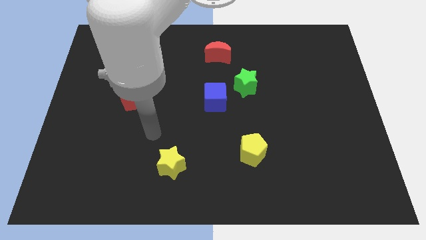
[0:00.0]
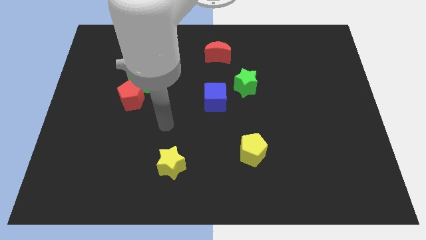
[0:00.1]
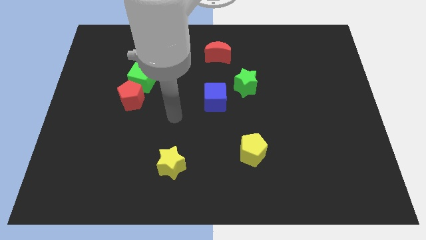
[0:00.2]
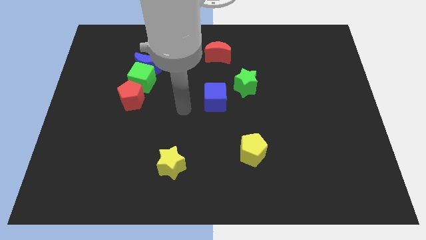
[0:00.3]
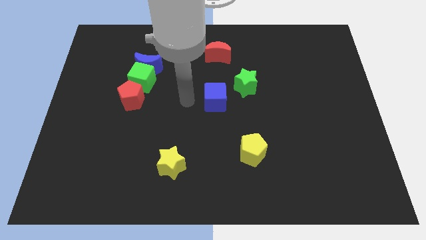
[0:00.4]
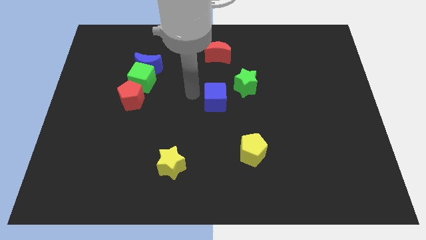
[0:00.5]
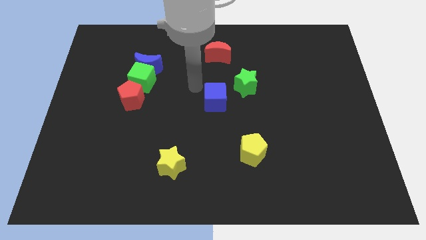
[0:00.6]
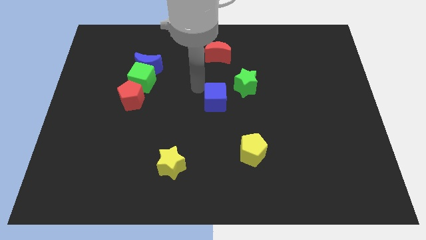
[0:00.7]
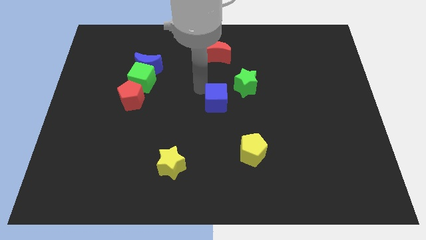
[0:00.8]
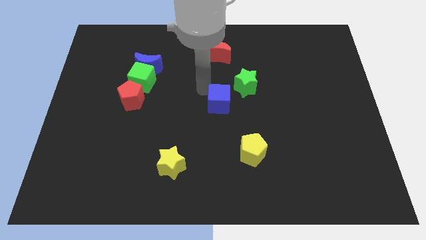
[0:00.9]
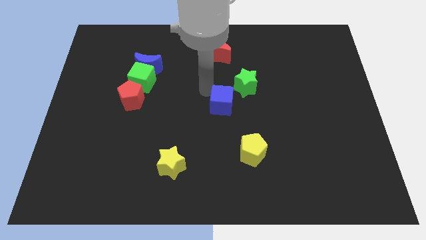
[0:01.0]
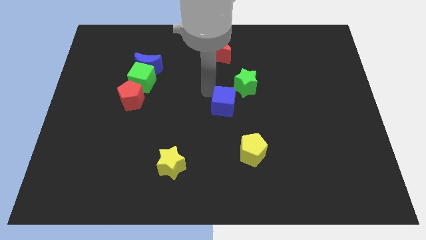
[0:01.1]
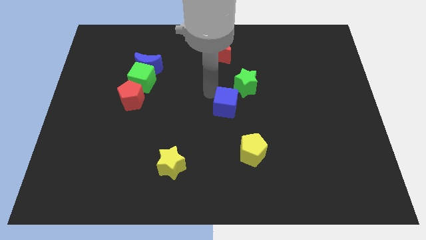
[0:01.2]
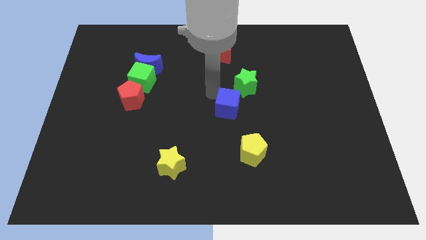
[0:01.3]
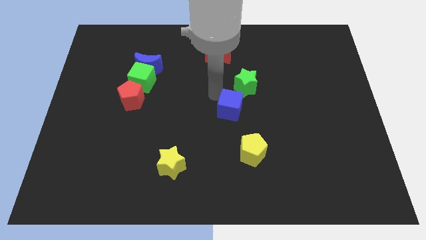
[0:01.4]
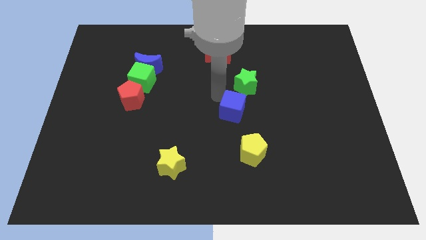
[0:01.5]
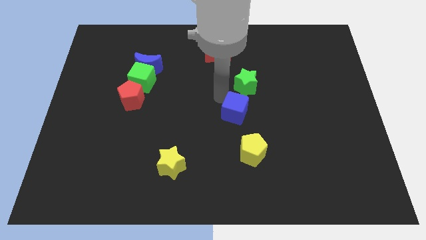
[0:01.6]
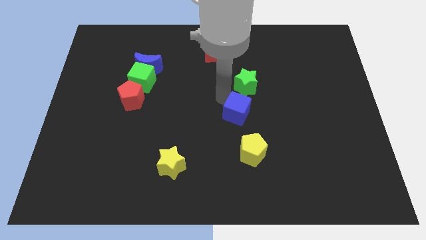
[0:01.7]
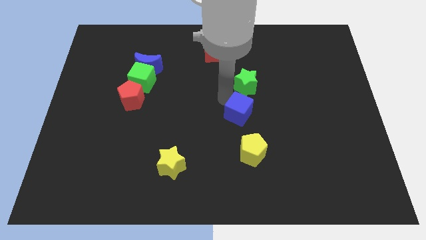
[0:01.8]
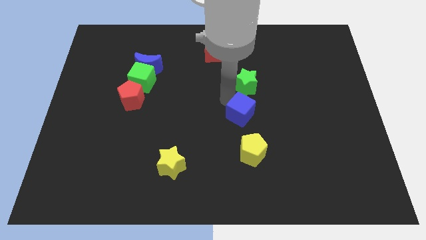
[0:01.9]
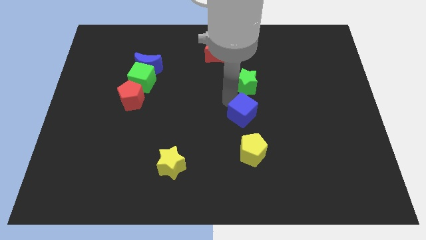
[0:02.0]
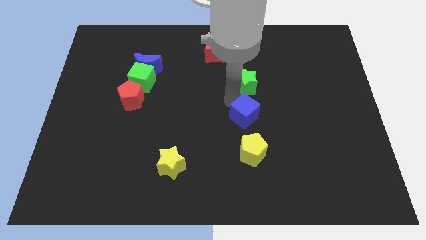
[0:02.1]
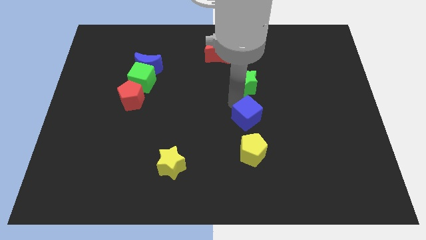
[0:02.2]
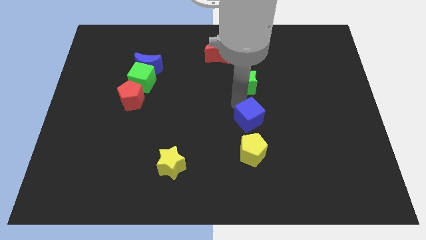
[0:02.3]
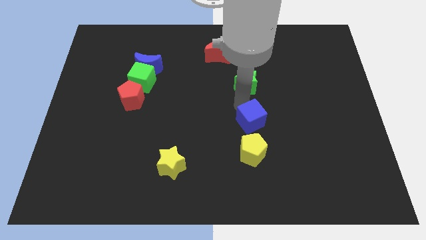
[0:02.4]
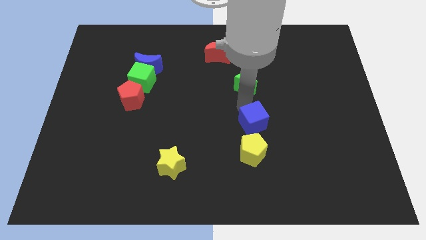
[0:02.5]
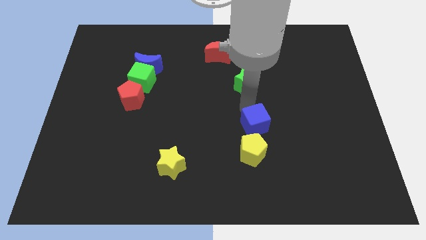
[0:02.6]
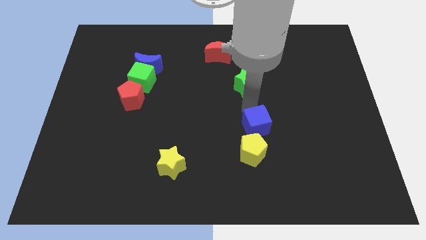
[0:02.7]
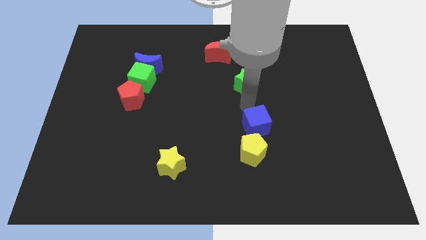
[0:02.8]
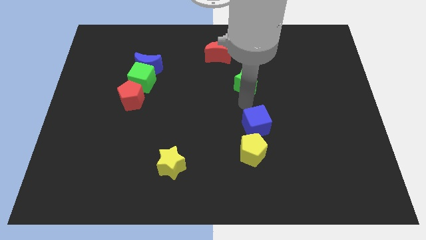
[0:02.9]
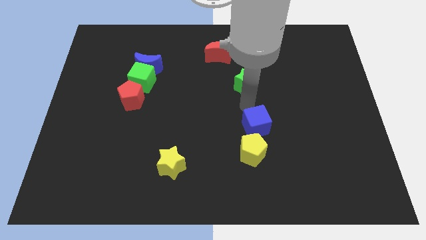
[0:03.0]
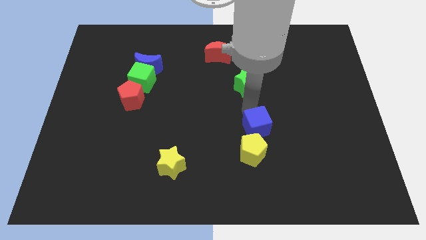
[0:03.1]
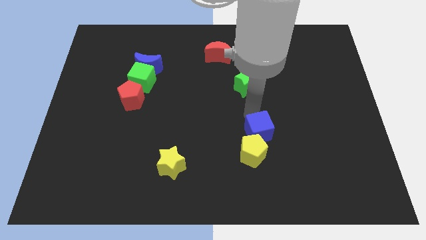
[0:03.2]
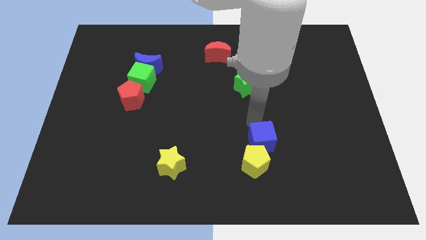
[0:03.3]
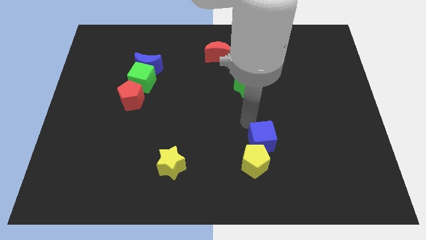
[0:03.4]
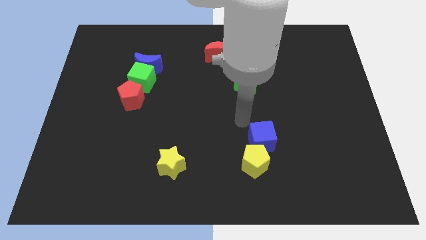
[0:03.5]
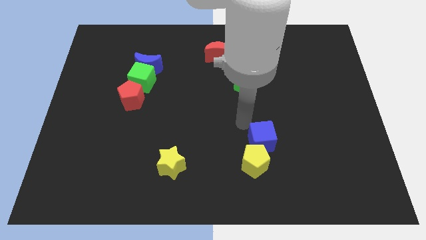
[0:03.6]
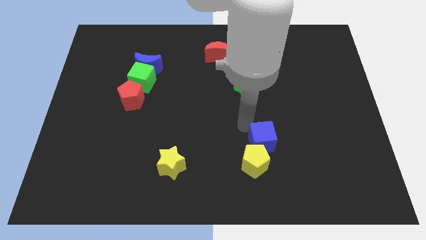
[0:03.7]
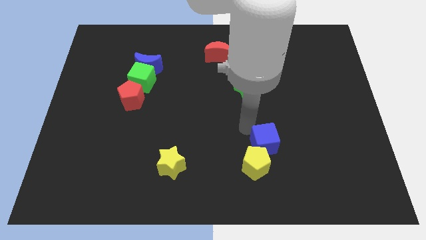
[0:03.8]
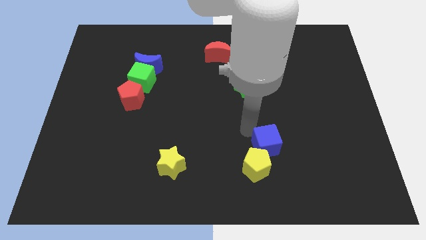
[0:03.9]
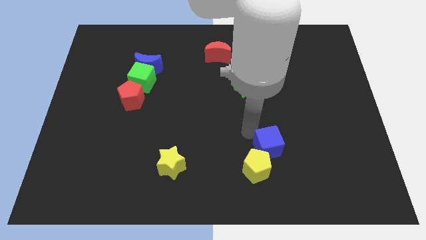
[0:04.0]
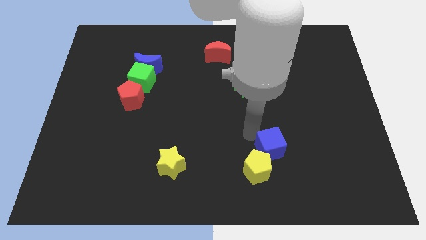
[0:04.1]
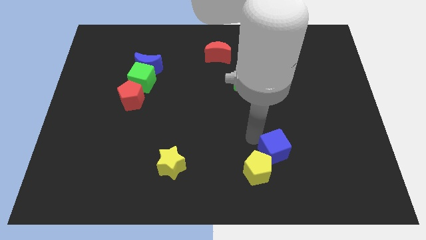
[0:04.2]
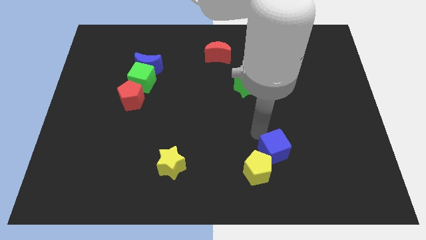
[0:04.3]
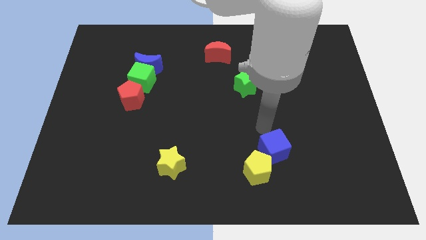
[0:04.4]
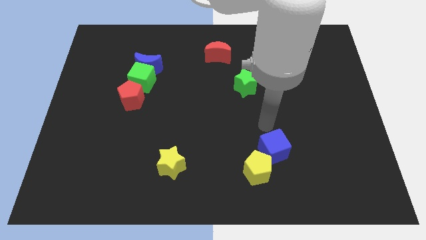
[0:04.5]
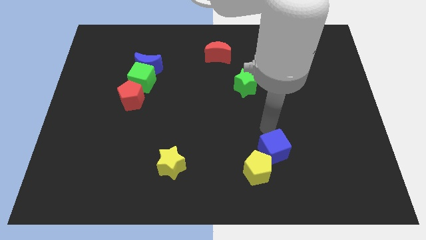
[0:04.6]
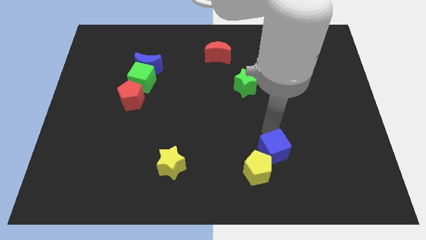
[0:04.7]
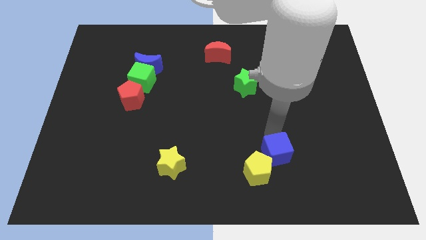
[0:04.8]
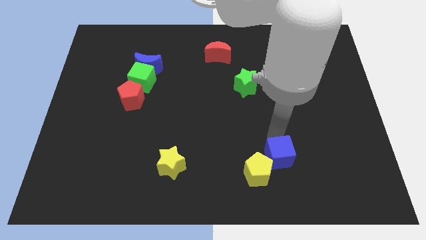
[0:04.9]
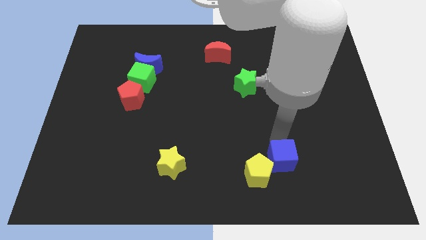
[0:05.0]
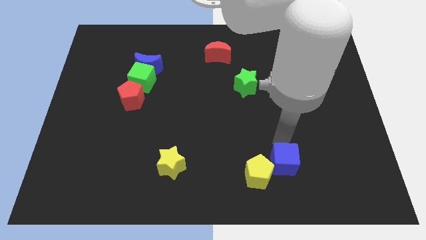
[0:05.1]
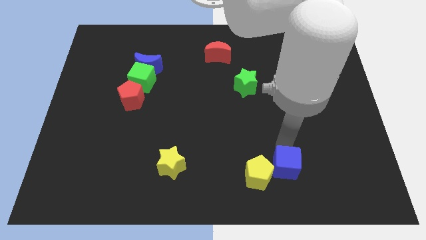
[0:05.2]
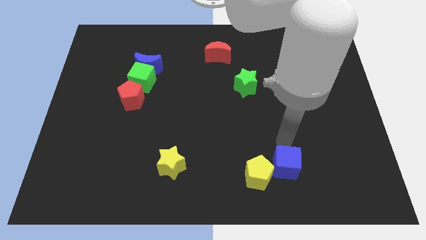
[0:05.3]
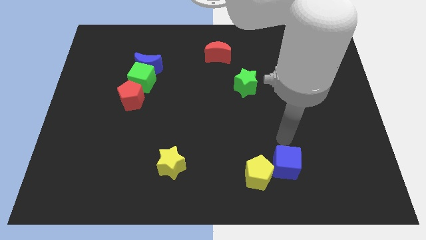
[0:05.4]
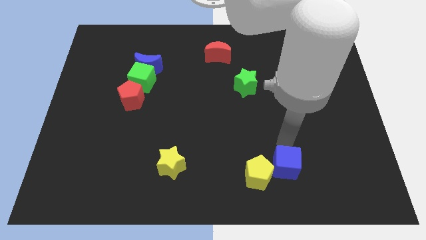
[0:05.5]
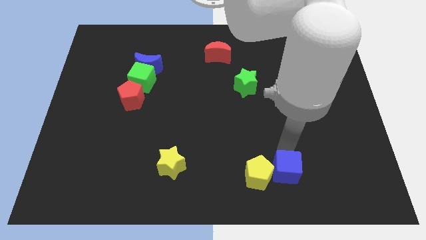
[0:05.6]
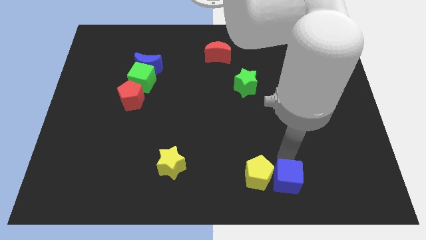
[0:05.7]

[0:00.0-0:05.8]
move the blue cube to the bottom right of the yellow pentagon

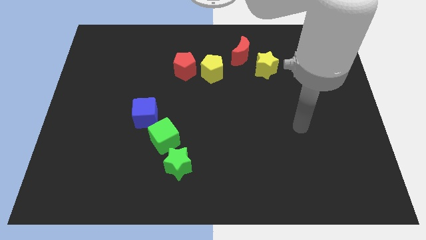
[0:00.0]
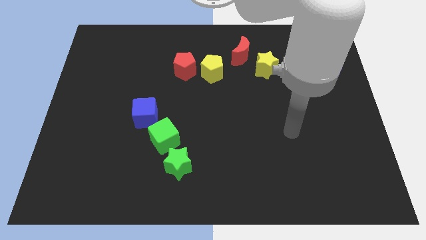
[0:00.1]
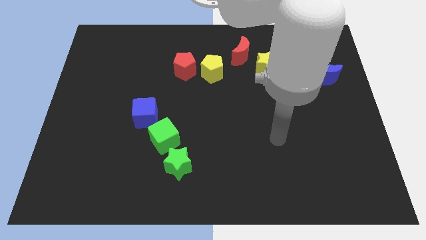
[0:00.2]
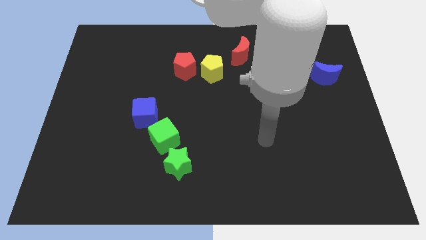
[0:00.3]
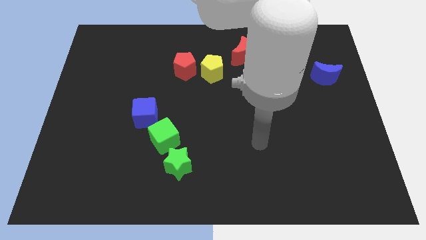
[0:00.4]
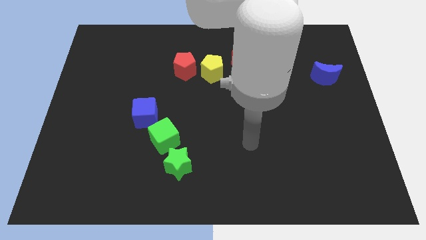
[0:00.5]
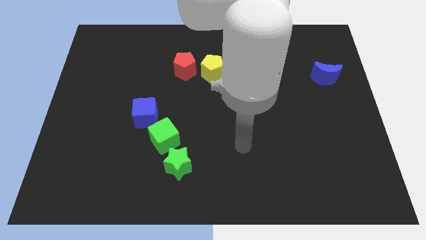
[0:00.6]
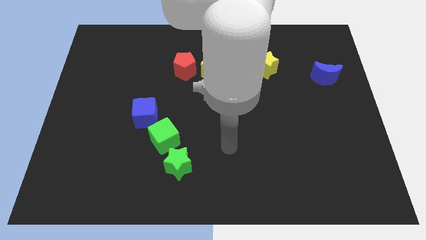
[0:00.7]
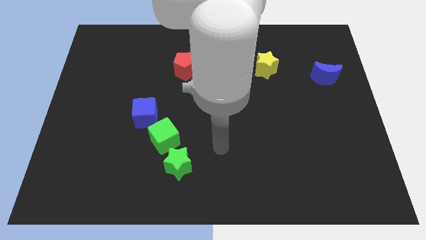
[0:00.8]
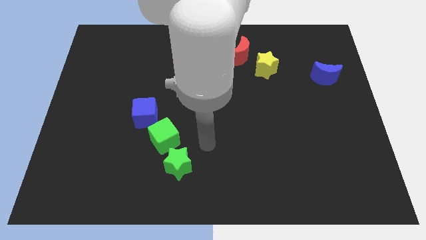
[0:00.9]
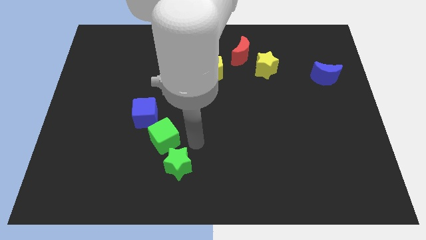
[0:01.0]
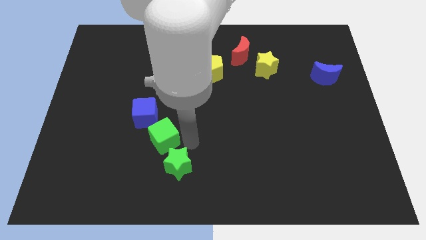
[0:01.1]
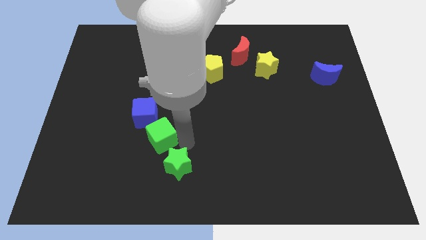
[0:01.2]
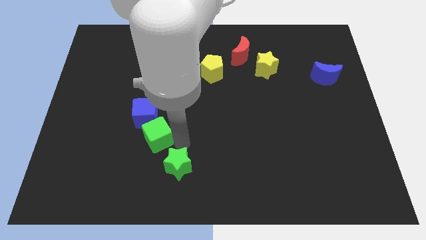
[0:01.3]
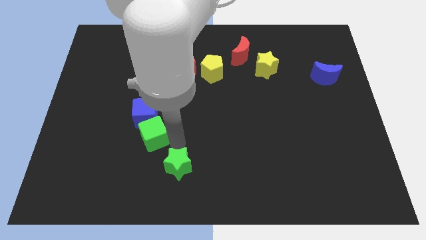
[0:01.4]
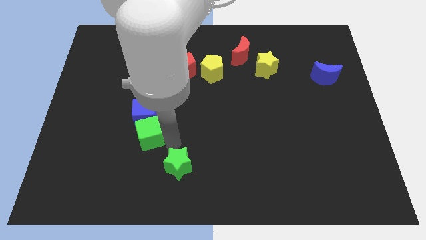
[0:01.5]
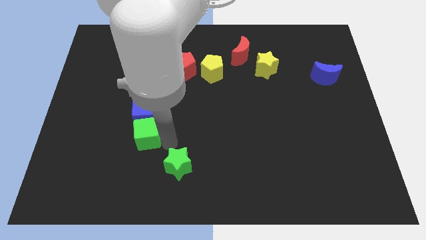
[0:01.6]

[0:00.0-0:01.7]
put the green cube diagonally down and to the left of the blue cube
